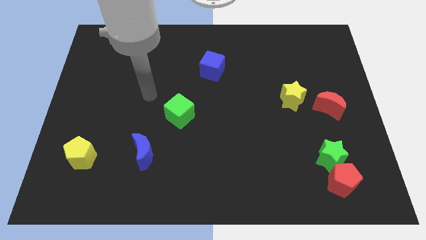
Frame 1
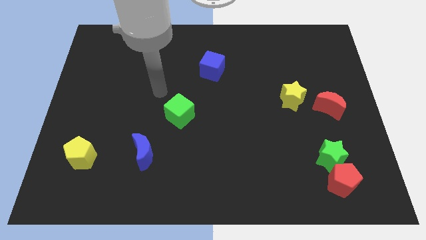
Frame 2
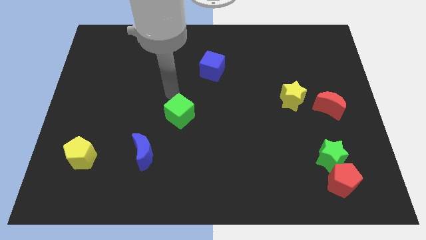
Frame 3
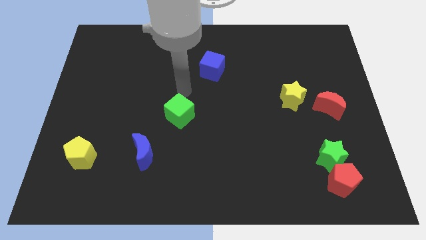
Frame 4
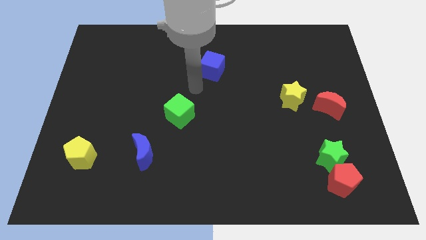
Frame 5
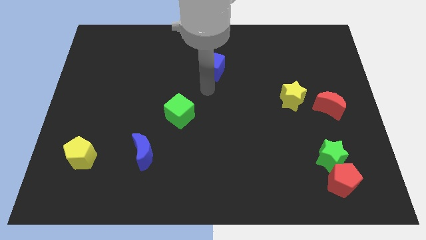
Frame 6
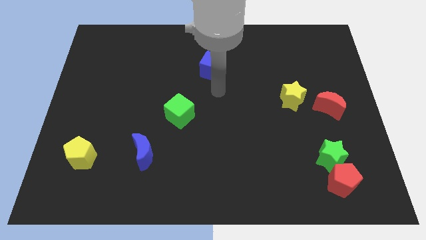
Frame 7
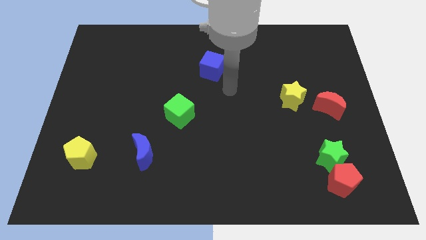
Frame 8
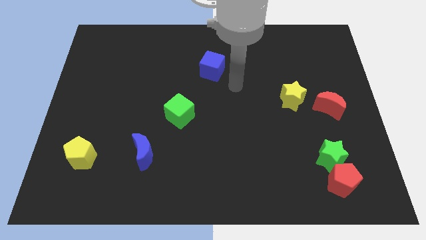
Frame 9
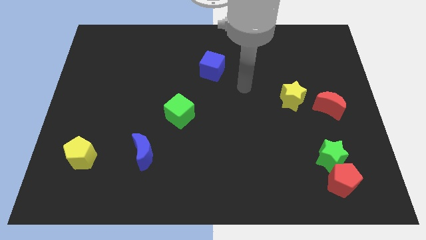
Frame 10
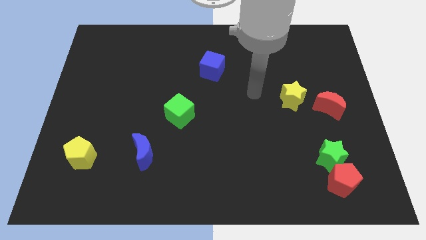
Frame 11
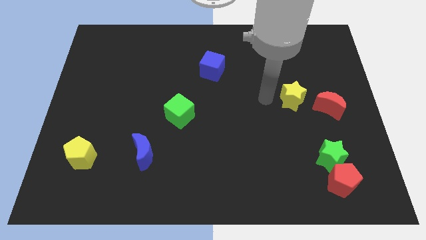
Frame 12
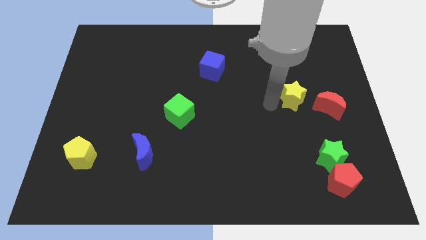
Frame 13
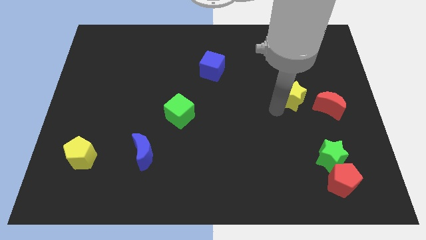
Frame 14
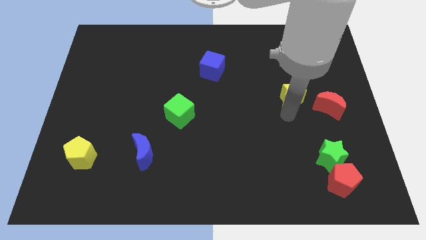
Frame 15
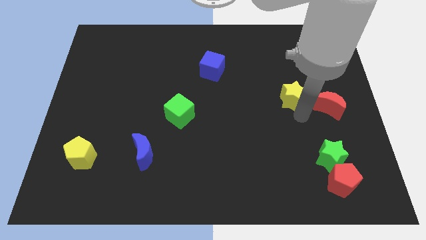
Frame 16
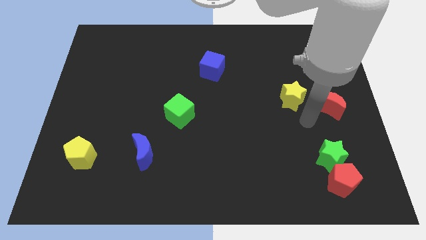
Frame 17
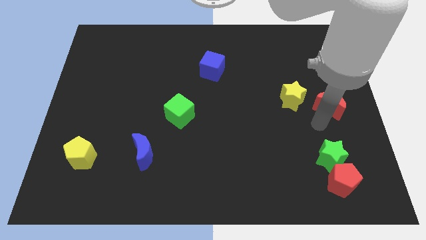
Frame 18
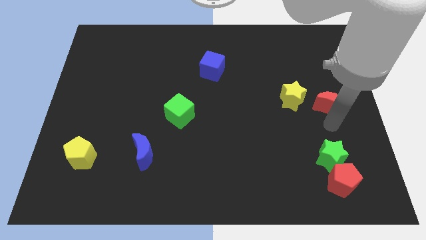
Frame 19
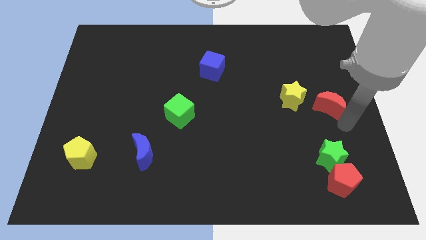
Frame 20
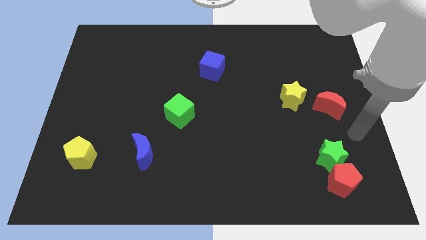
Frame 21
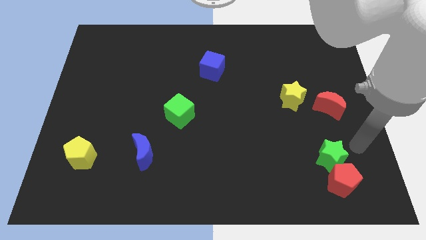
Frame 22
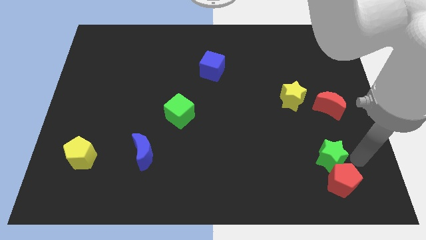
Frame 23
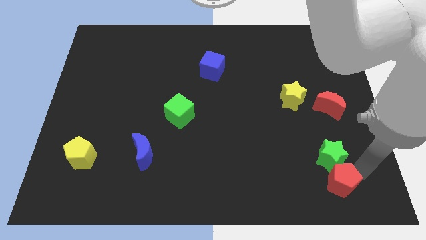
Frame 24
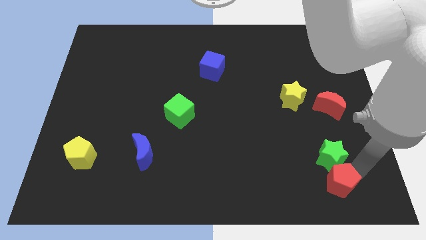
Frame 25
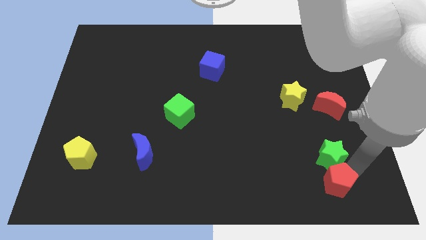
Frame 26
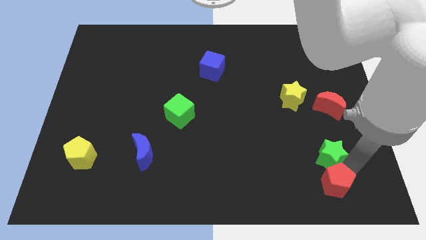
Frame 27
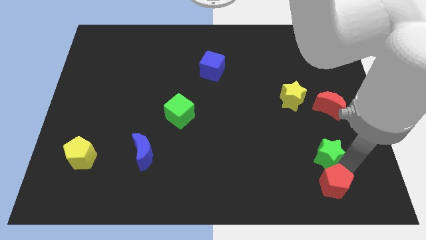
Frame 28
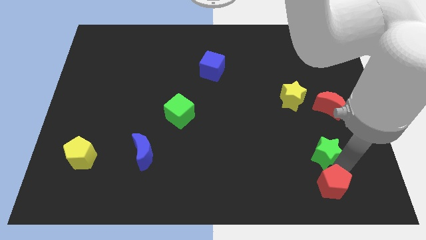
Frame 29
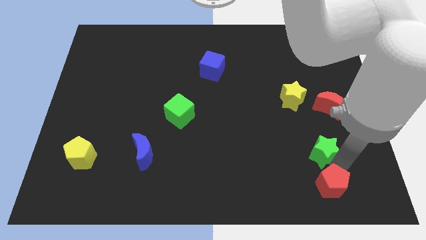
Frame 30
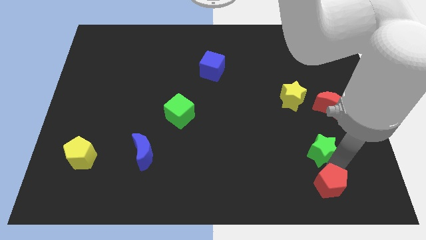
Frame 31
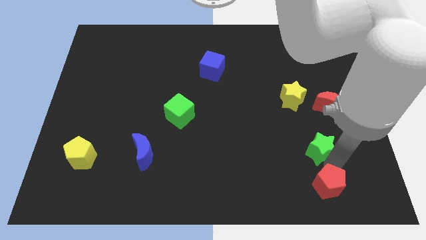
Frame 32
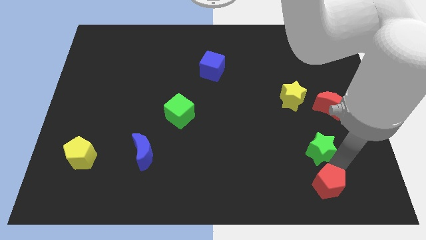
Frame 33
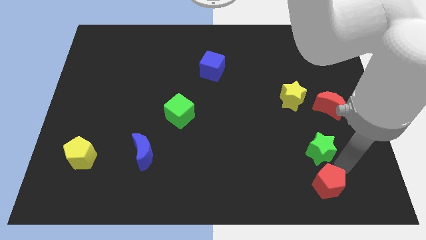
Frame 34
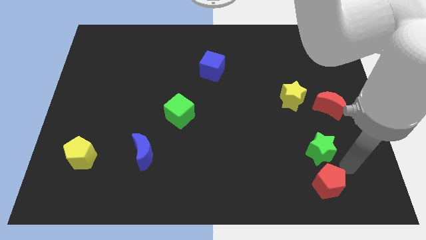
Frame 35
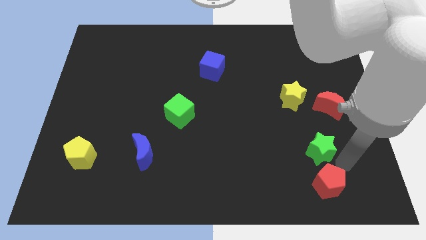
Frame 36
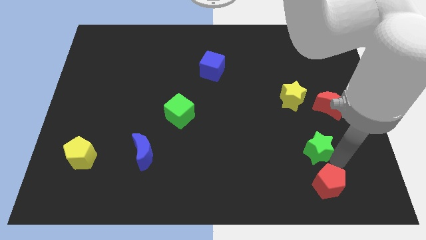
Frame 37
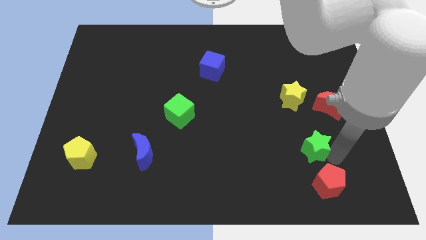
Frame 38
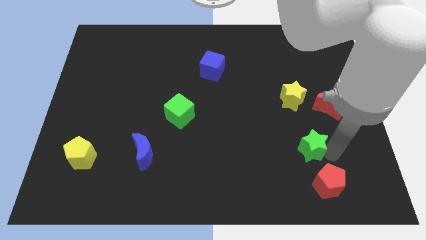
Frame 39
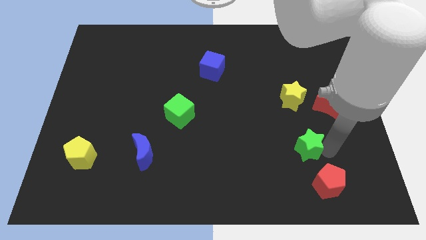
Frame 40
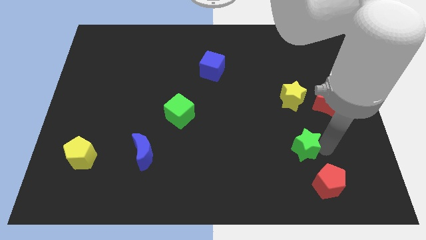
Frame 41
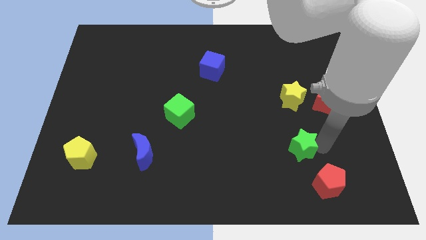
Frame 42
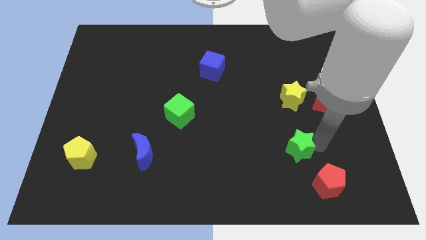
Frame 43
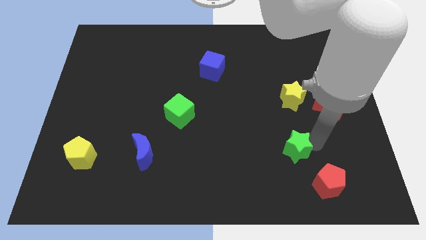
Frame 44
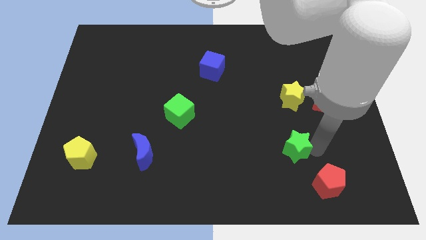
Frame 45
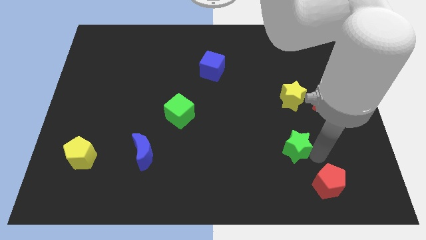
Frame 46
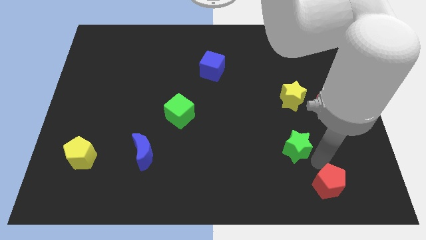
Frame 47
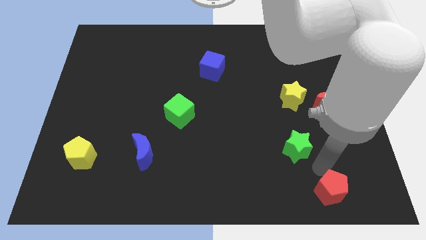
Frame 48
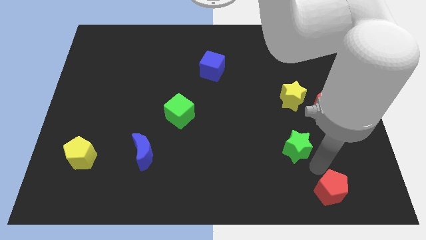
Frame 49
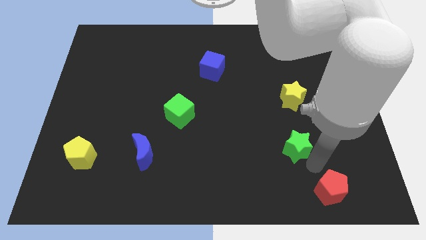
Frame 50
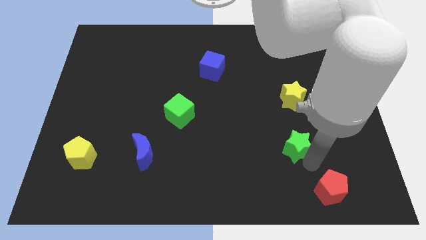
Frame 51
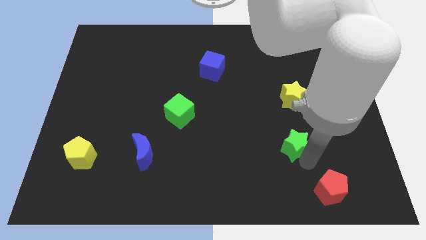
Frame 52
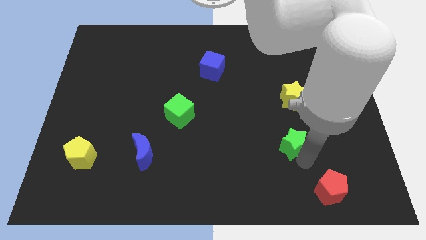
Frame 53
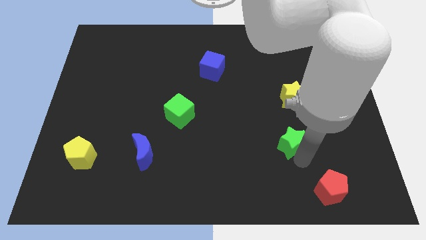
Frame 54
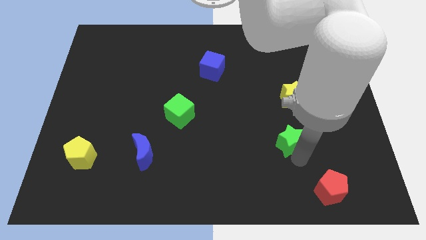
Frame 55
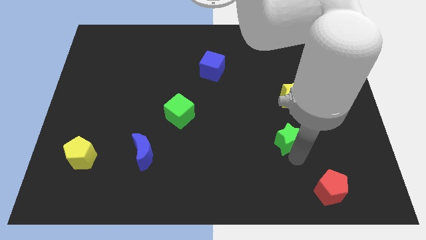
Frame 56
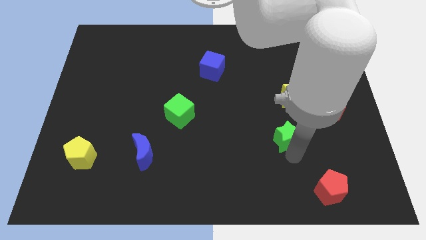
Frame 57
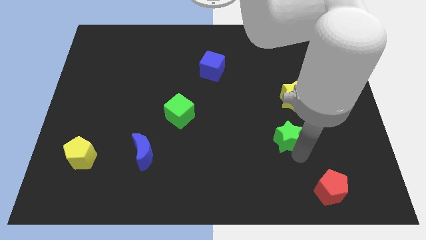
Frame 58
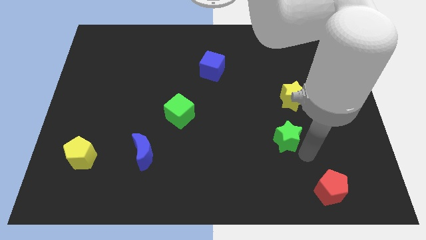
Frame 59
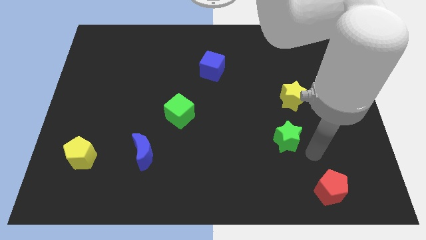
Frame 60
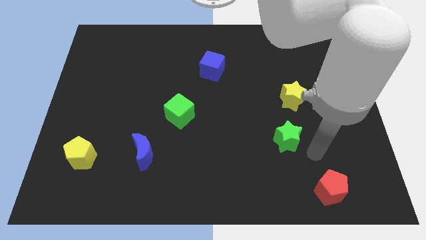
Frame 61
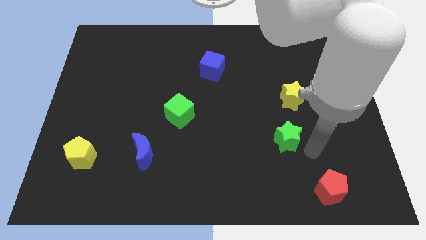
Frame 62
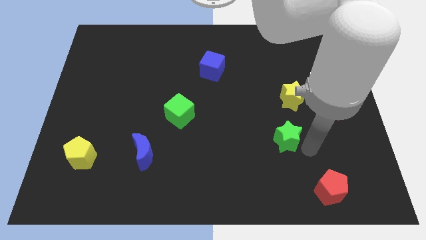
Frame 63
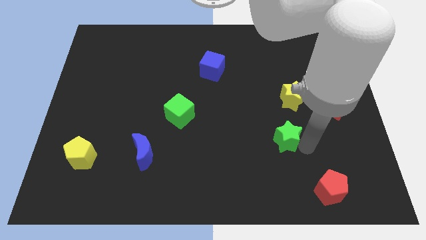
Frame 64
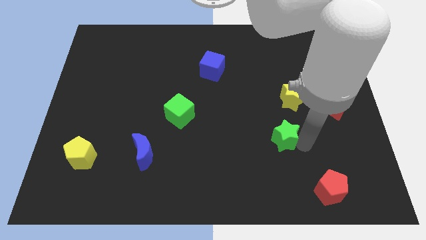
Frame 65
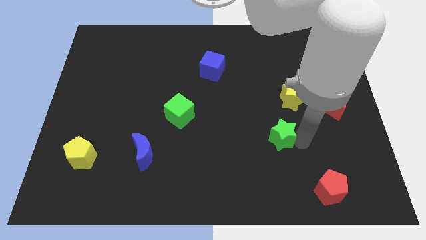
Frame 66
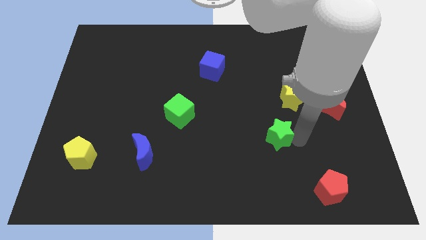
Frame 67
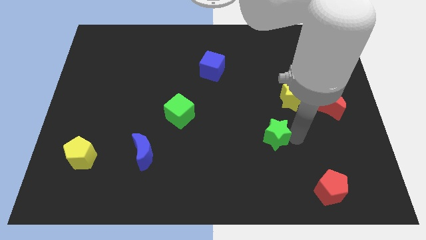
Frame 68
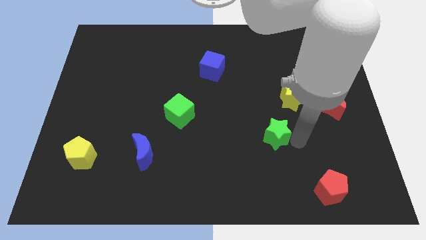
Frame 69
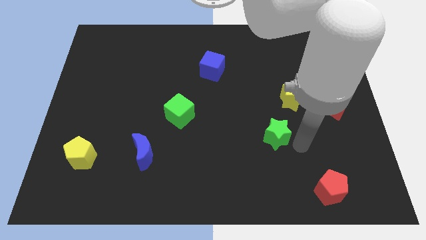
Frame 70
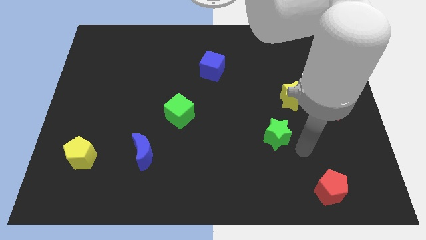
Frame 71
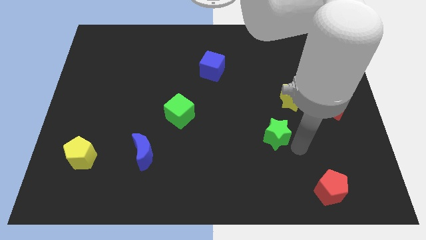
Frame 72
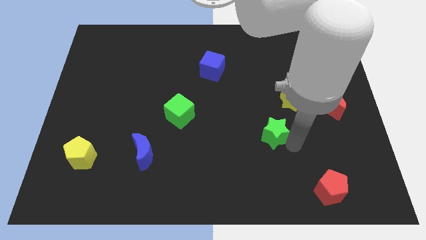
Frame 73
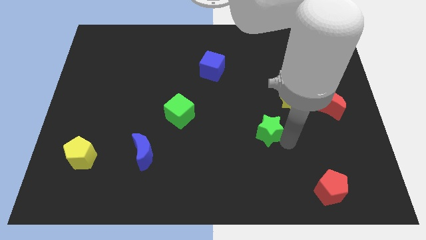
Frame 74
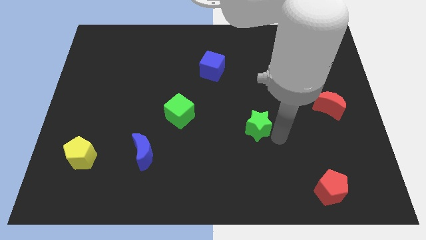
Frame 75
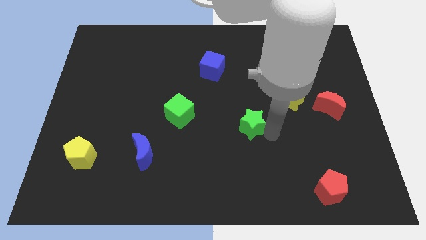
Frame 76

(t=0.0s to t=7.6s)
slide the green star to the middle of the board
